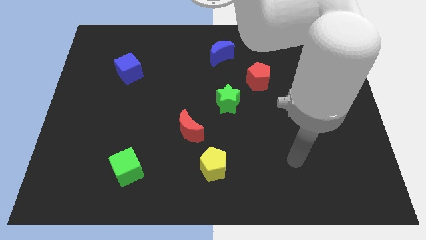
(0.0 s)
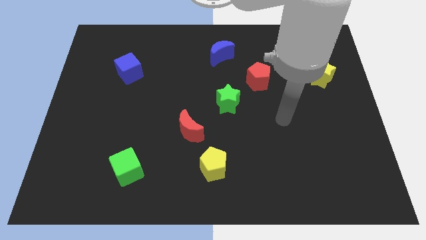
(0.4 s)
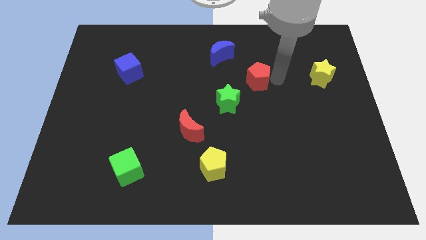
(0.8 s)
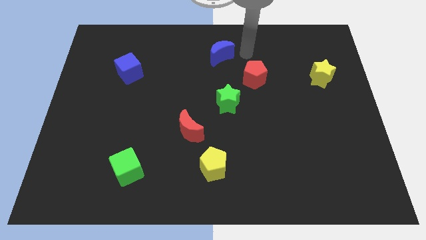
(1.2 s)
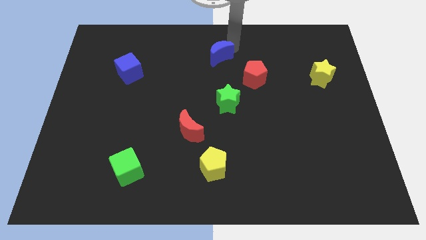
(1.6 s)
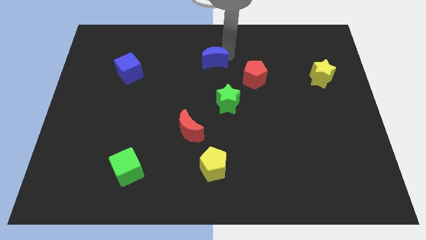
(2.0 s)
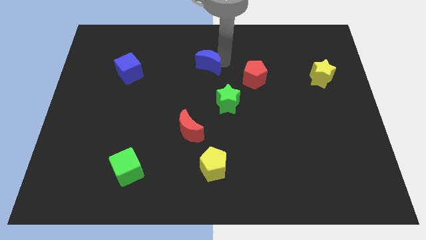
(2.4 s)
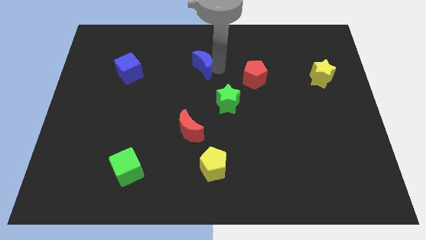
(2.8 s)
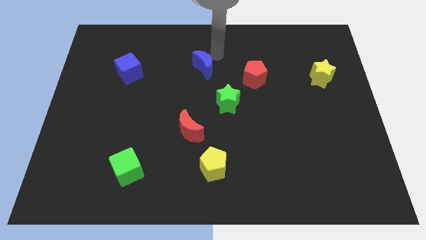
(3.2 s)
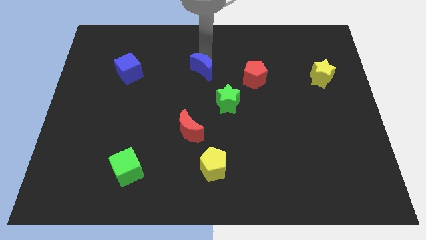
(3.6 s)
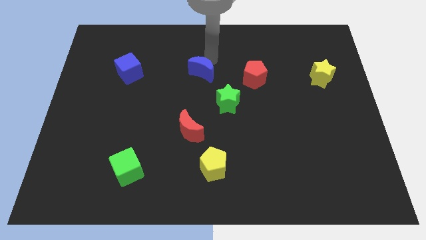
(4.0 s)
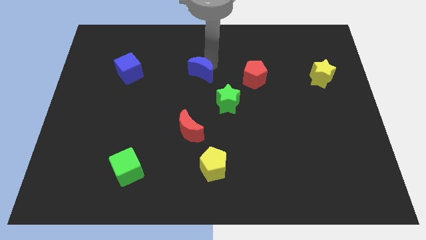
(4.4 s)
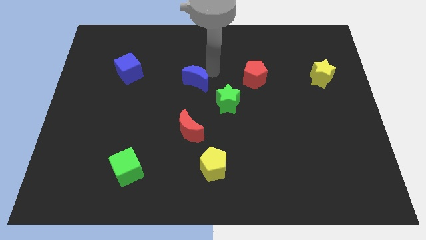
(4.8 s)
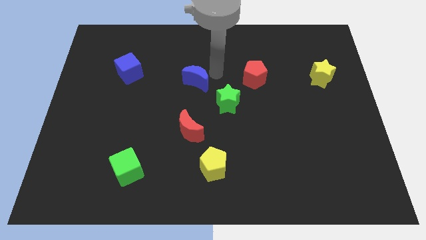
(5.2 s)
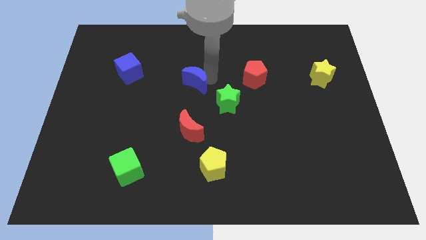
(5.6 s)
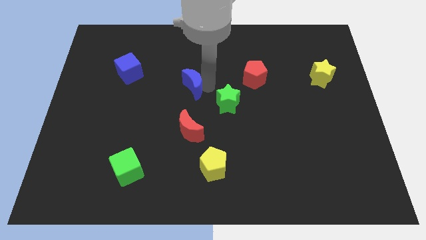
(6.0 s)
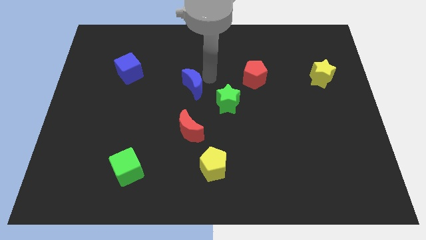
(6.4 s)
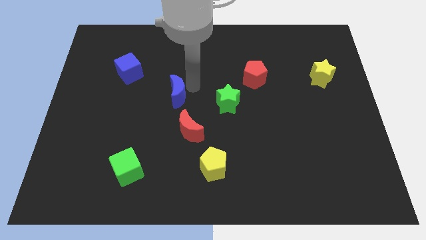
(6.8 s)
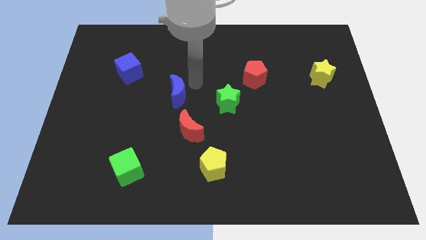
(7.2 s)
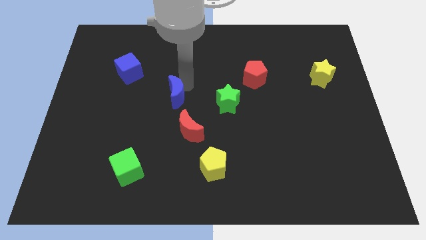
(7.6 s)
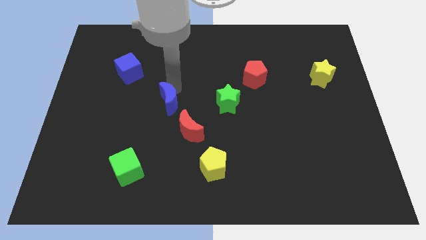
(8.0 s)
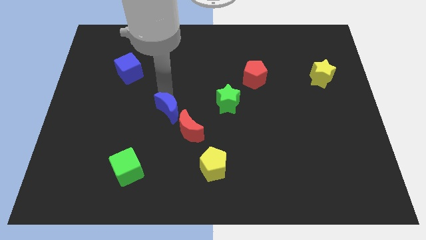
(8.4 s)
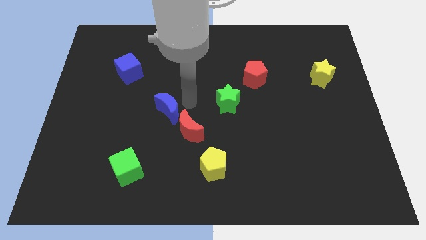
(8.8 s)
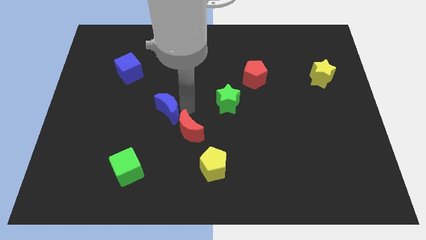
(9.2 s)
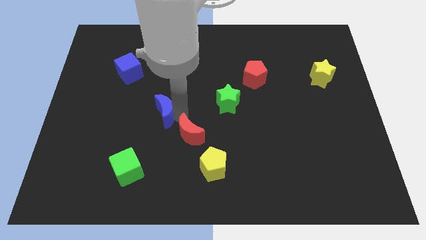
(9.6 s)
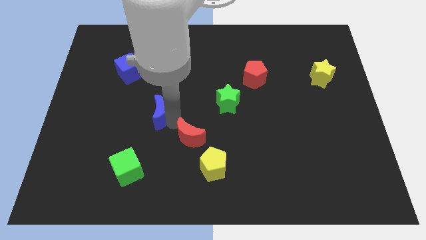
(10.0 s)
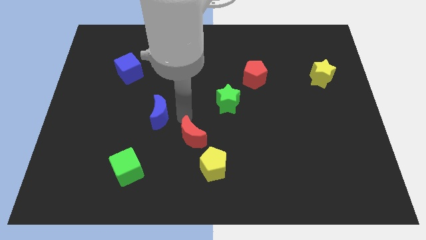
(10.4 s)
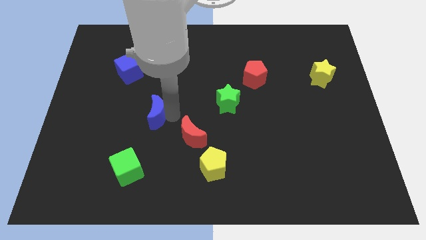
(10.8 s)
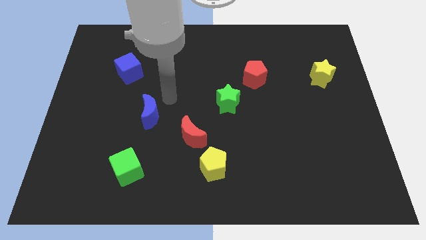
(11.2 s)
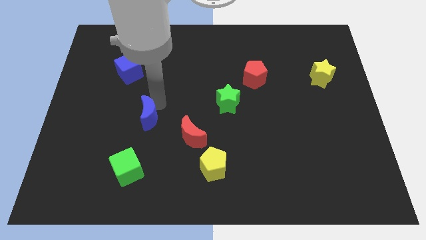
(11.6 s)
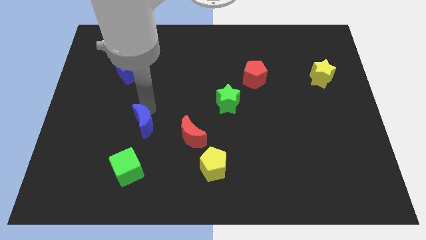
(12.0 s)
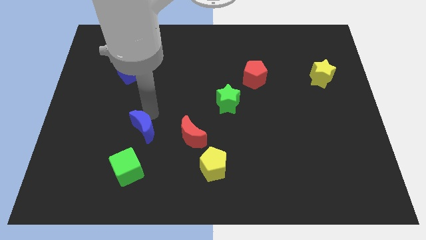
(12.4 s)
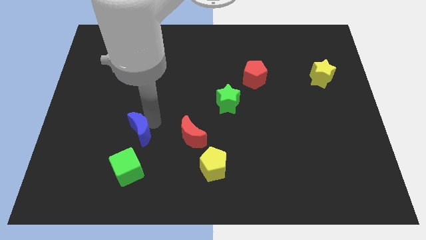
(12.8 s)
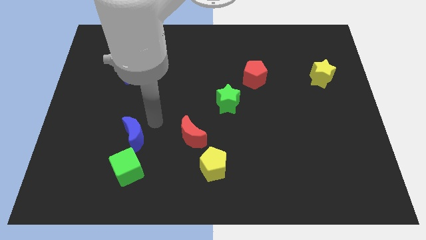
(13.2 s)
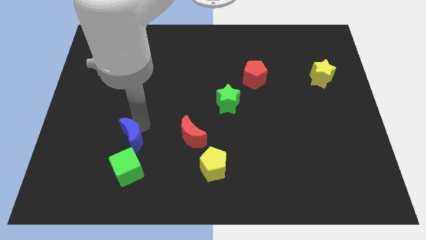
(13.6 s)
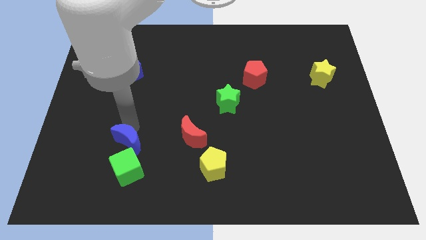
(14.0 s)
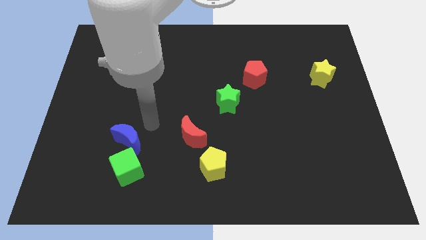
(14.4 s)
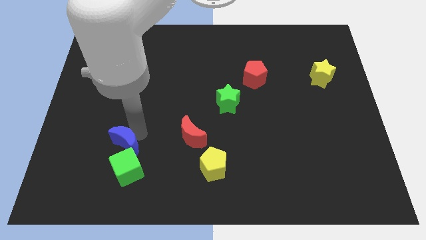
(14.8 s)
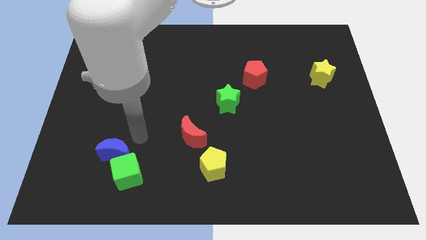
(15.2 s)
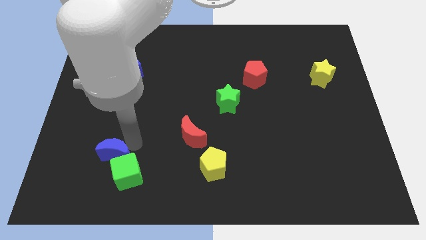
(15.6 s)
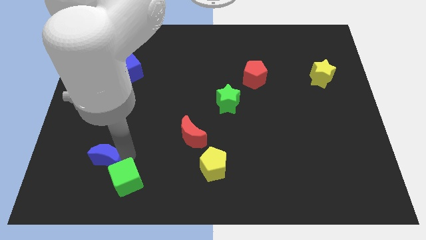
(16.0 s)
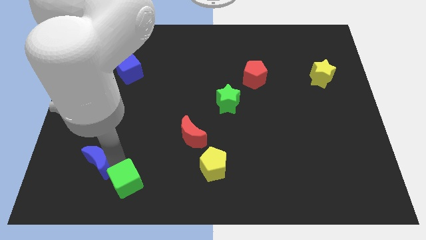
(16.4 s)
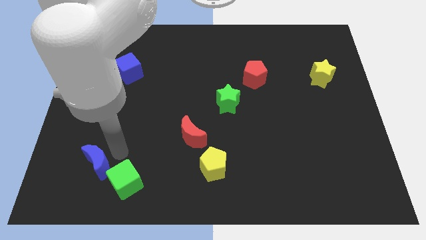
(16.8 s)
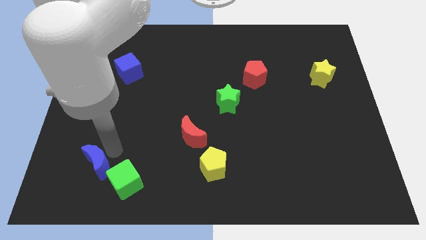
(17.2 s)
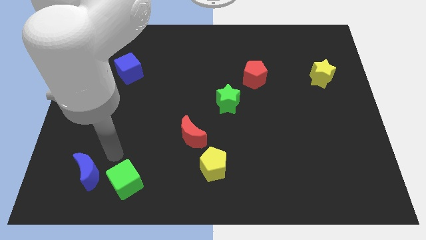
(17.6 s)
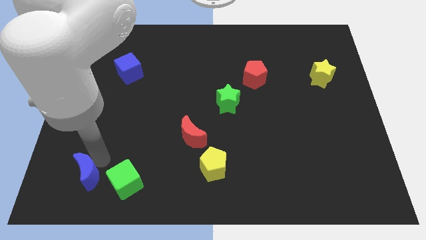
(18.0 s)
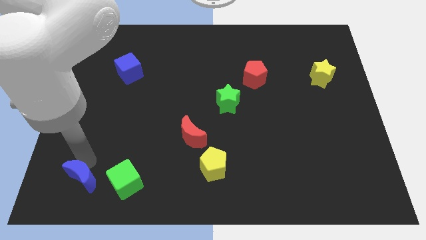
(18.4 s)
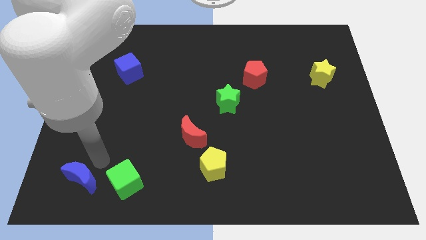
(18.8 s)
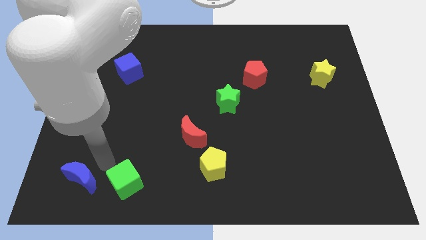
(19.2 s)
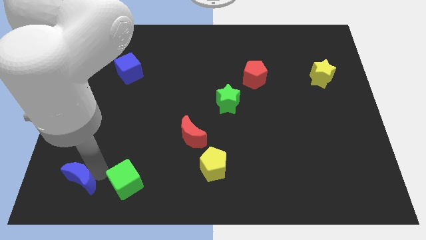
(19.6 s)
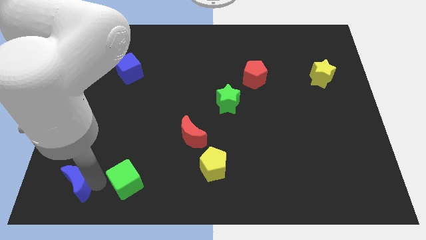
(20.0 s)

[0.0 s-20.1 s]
put the blue moon to the bottom left

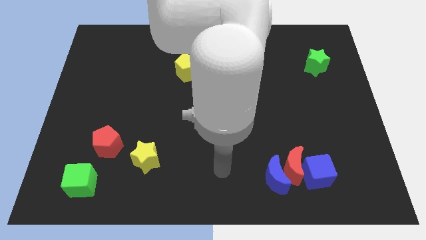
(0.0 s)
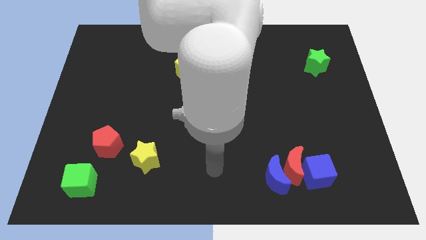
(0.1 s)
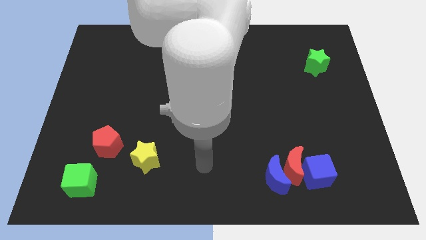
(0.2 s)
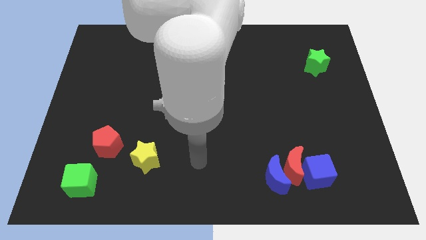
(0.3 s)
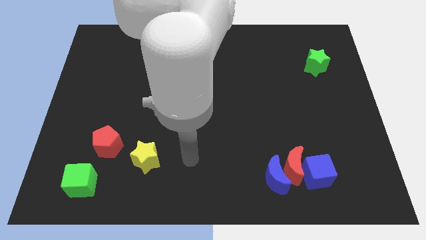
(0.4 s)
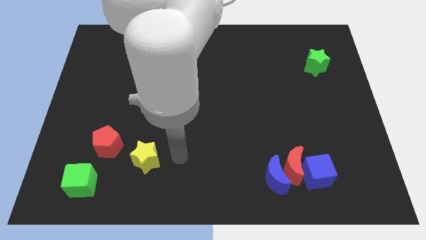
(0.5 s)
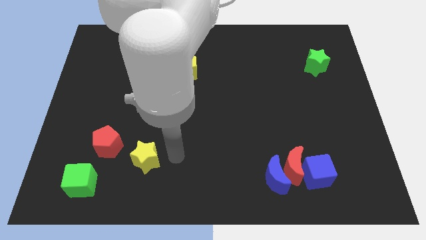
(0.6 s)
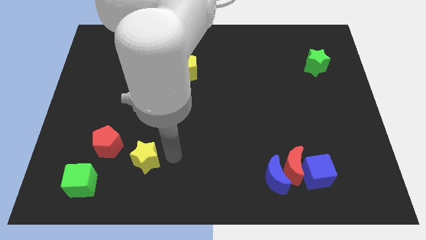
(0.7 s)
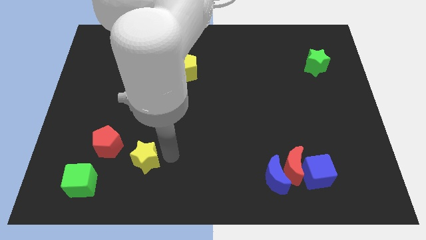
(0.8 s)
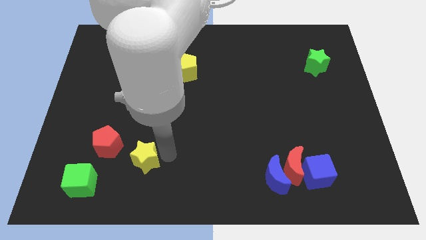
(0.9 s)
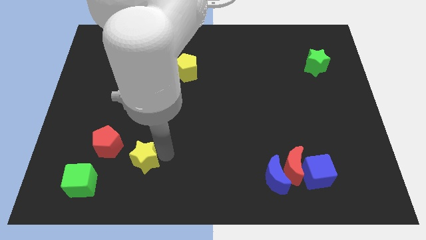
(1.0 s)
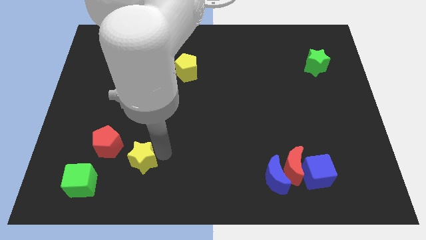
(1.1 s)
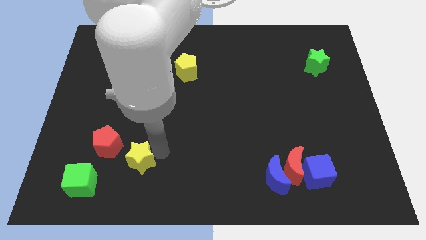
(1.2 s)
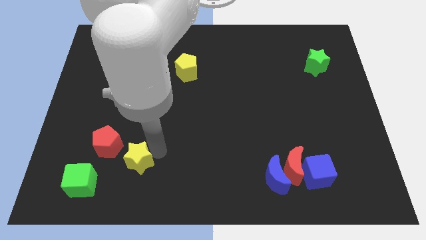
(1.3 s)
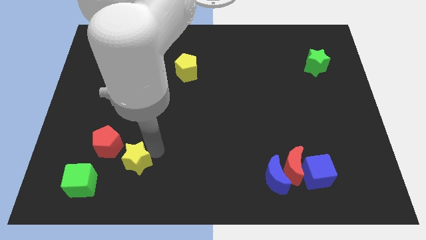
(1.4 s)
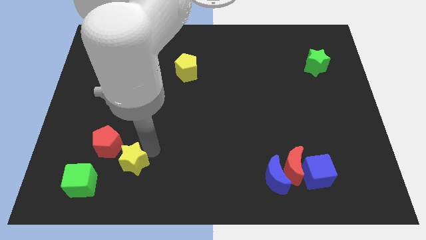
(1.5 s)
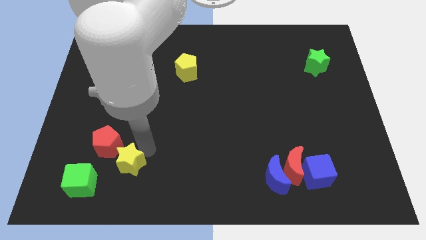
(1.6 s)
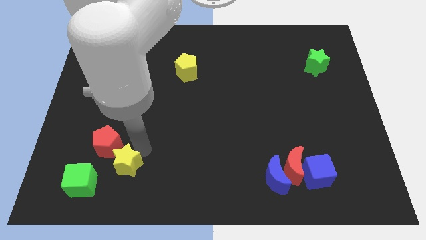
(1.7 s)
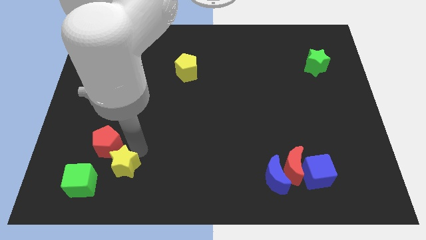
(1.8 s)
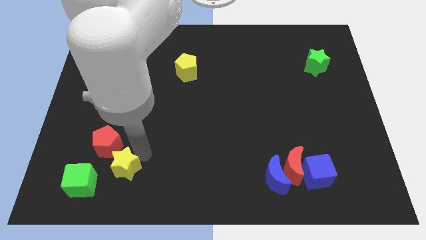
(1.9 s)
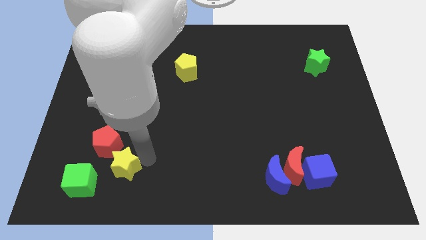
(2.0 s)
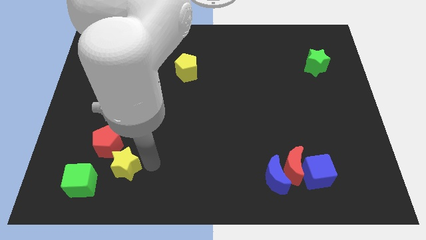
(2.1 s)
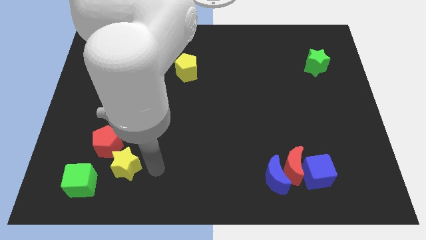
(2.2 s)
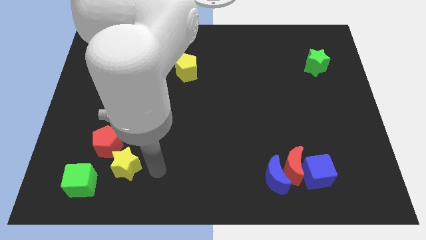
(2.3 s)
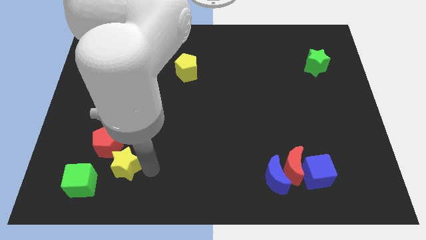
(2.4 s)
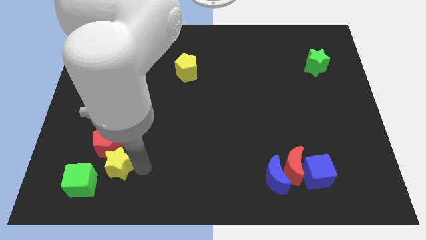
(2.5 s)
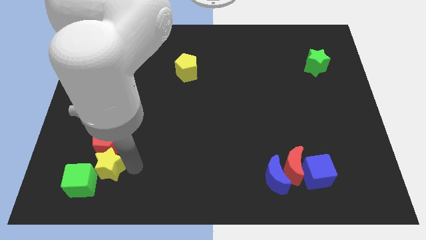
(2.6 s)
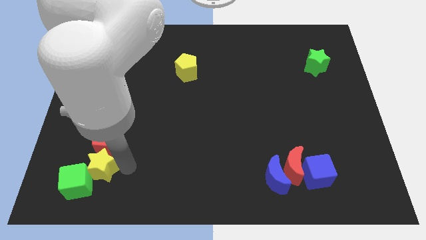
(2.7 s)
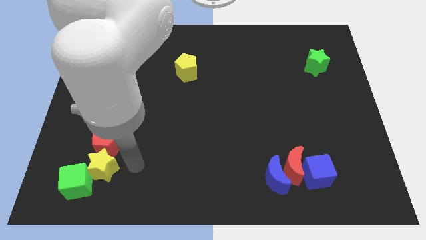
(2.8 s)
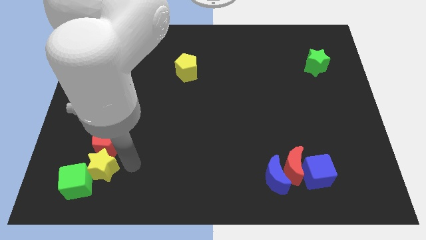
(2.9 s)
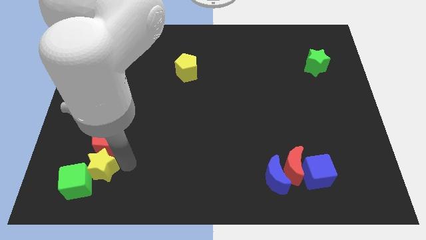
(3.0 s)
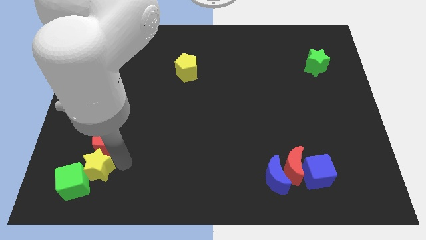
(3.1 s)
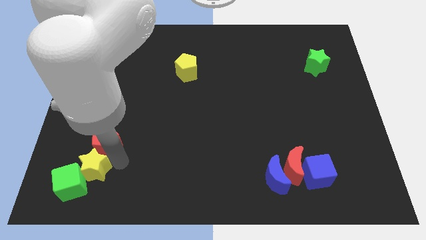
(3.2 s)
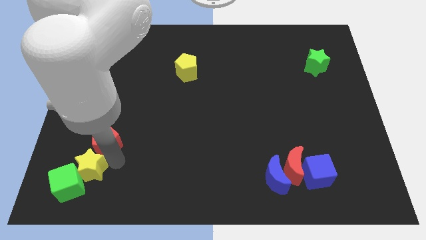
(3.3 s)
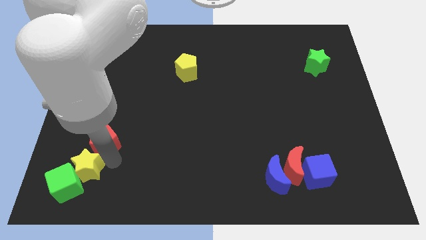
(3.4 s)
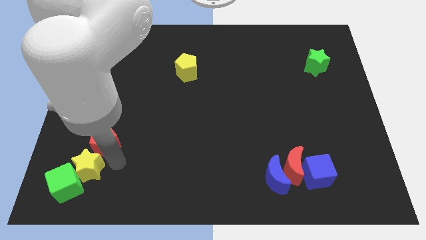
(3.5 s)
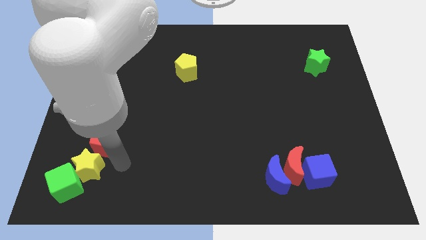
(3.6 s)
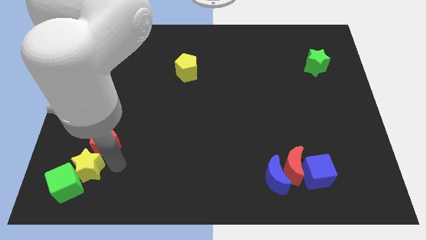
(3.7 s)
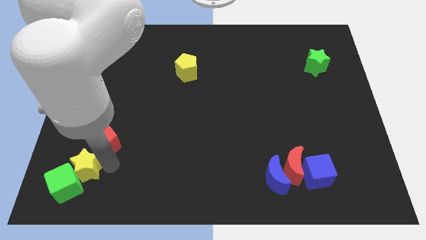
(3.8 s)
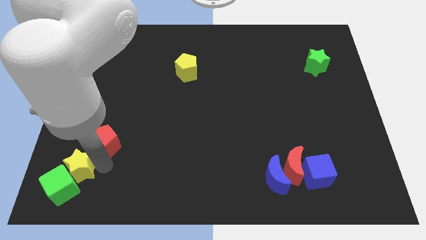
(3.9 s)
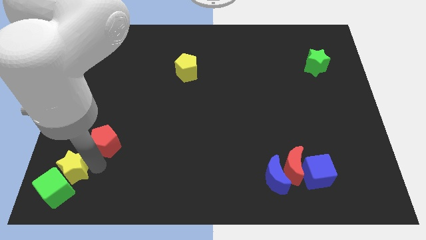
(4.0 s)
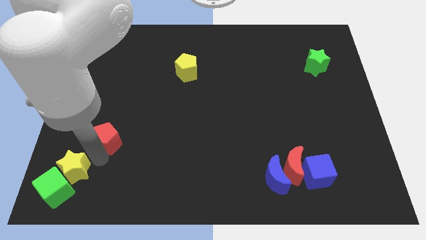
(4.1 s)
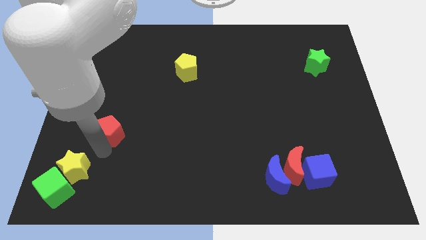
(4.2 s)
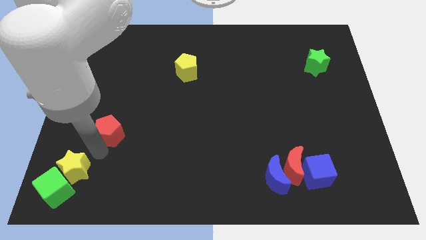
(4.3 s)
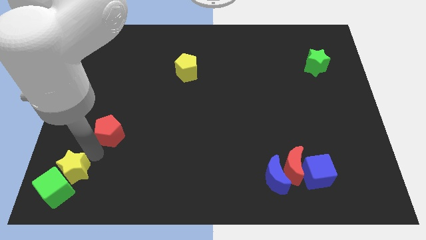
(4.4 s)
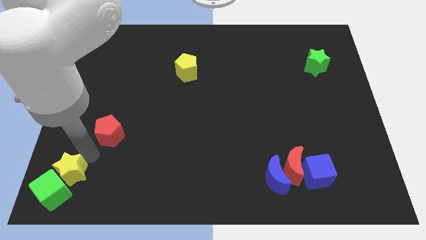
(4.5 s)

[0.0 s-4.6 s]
put the yellow star to the bottom left
